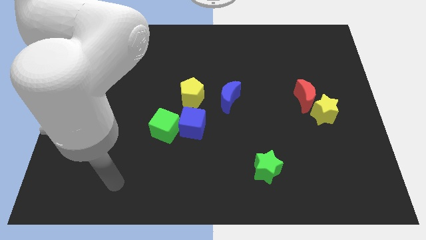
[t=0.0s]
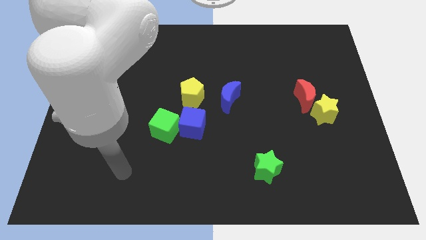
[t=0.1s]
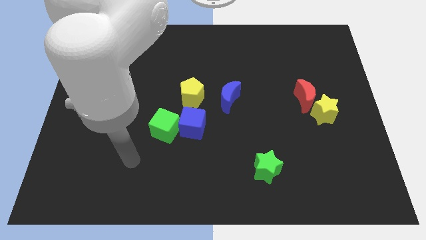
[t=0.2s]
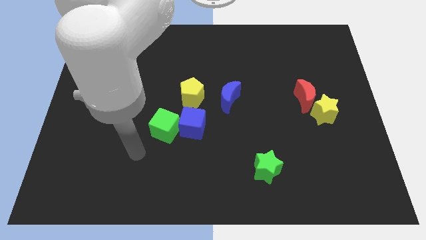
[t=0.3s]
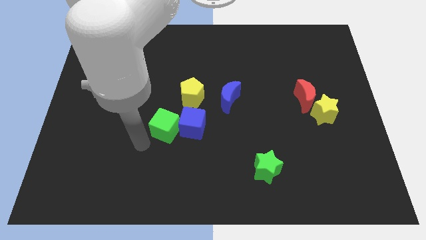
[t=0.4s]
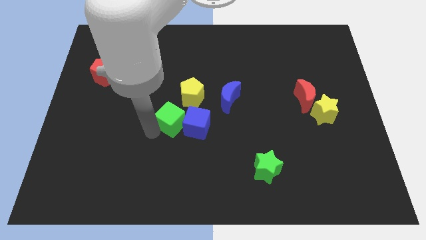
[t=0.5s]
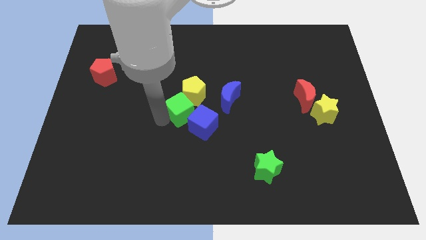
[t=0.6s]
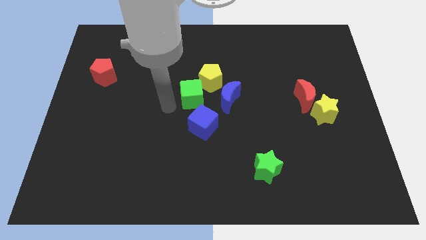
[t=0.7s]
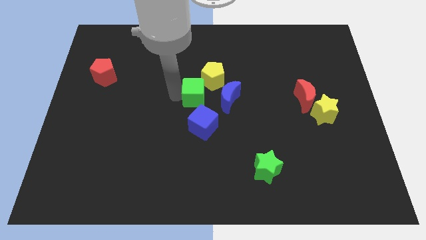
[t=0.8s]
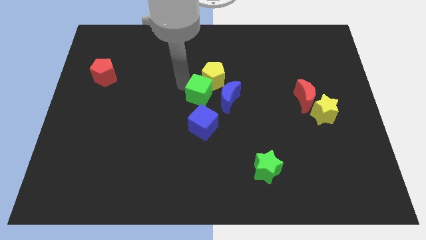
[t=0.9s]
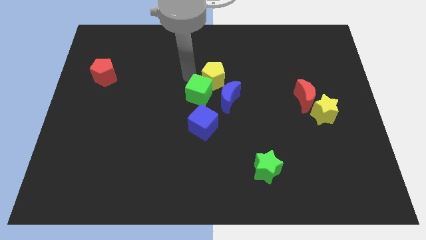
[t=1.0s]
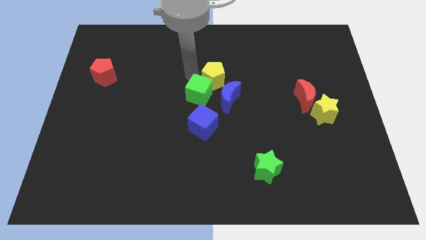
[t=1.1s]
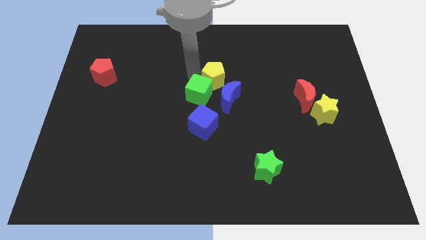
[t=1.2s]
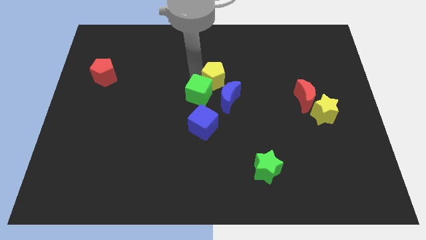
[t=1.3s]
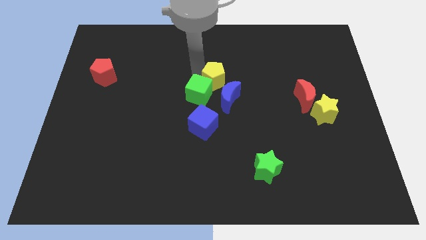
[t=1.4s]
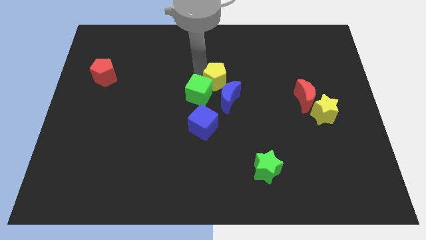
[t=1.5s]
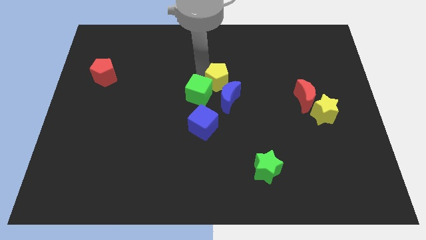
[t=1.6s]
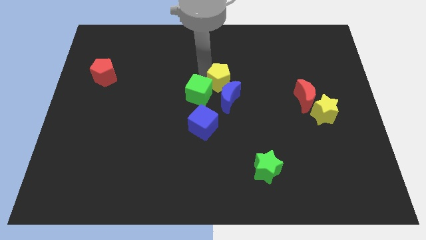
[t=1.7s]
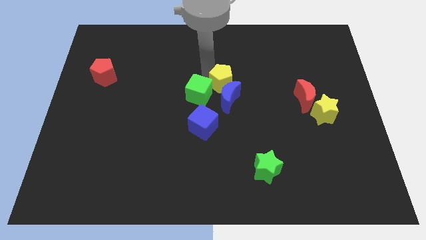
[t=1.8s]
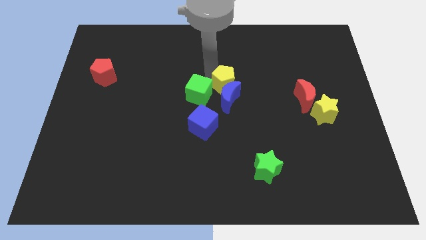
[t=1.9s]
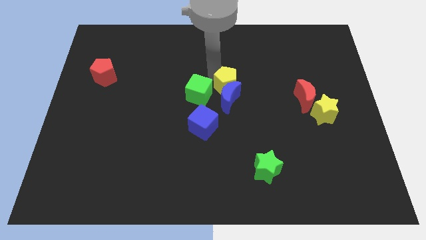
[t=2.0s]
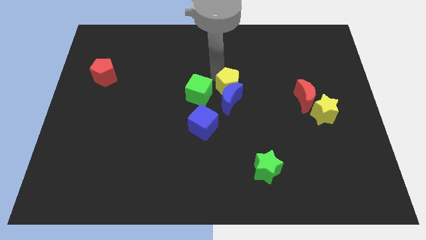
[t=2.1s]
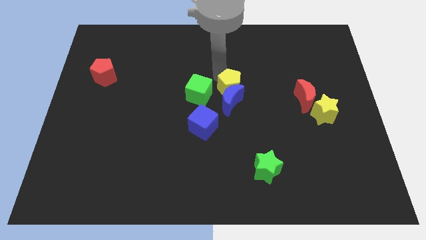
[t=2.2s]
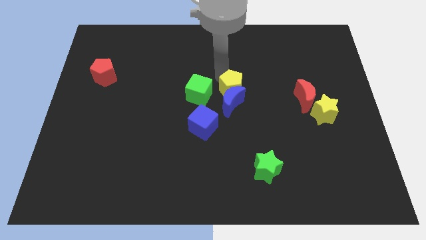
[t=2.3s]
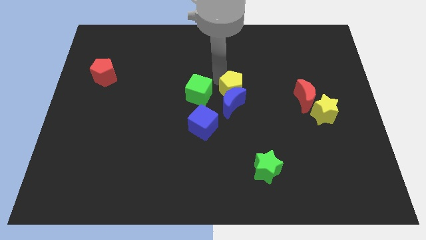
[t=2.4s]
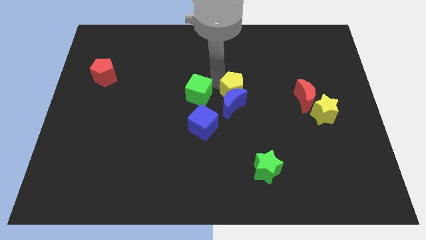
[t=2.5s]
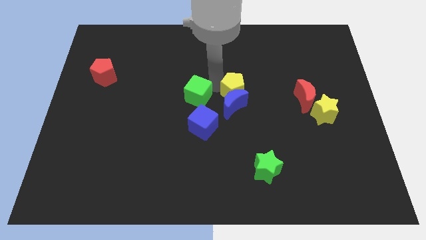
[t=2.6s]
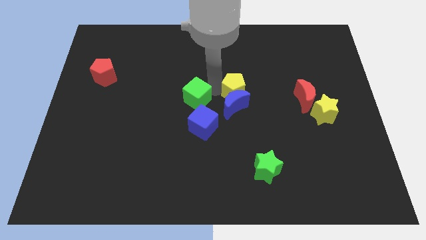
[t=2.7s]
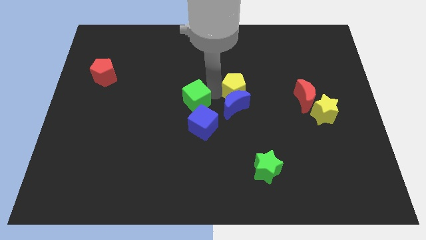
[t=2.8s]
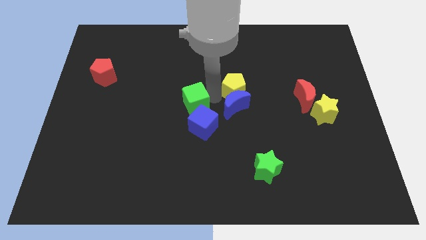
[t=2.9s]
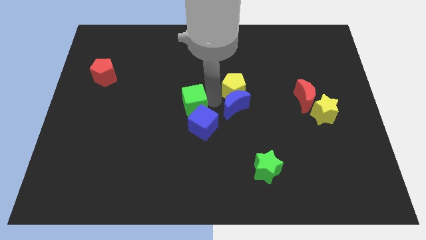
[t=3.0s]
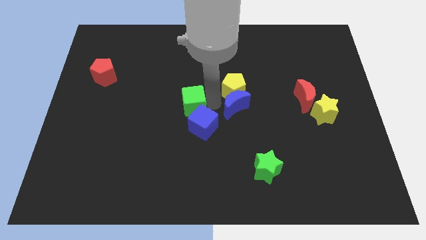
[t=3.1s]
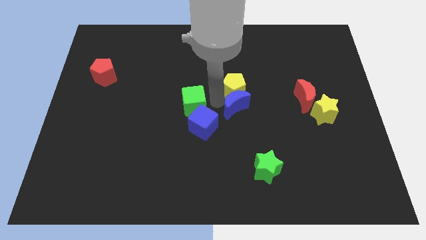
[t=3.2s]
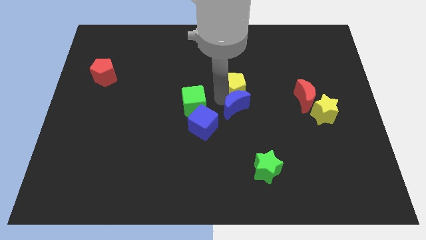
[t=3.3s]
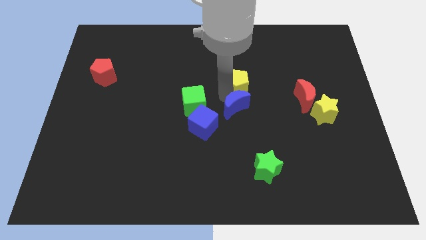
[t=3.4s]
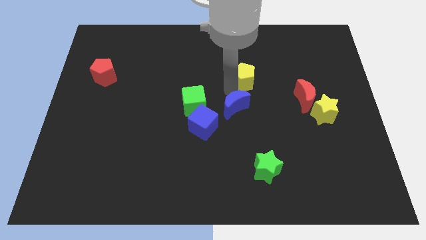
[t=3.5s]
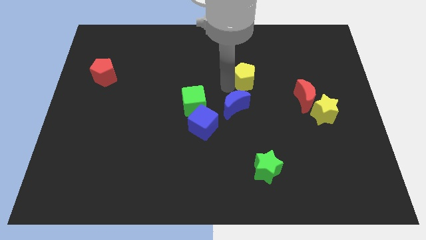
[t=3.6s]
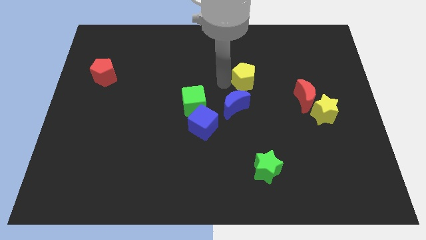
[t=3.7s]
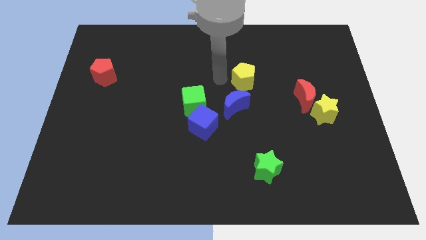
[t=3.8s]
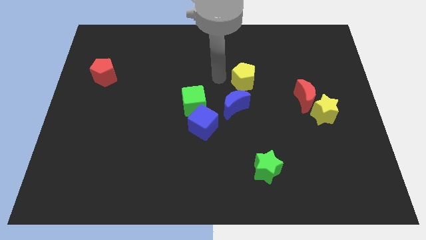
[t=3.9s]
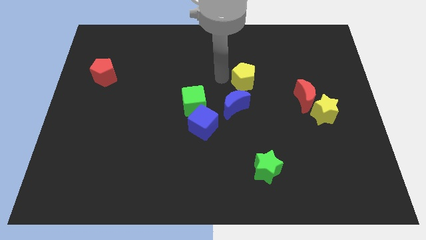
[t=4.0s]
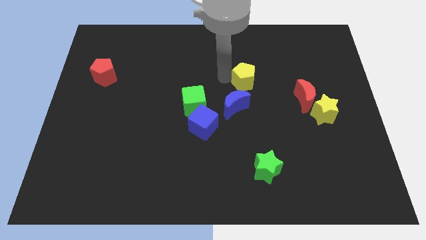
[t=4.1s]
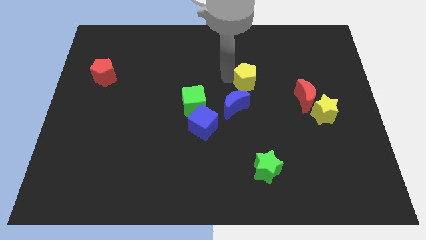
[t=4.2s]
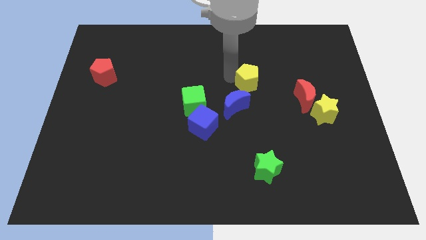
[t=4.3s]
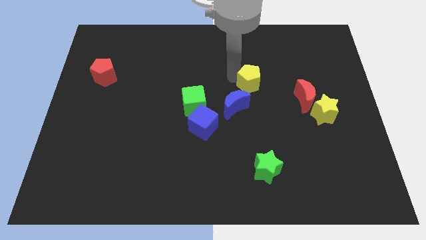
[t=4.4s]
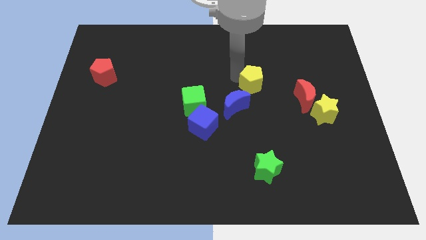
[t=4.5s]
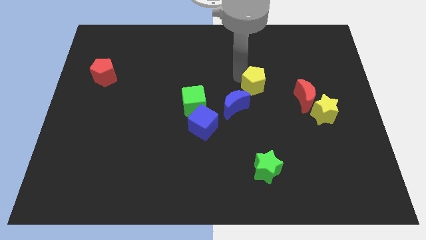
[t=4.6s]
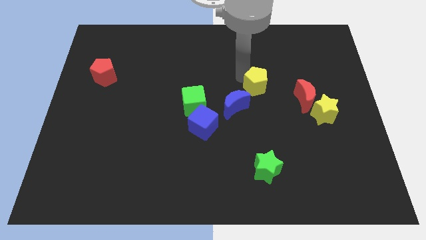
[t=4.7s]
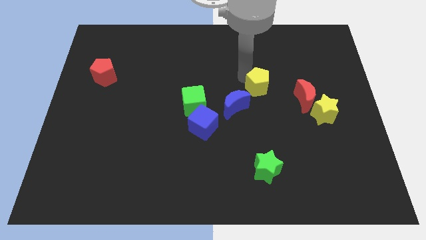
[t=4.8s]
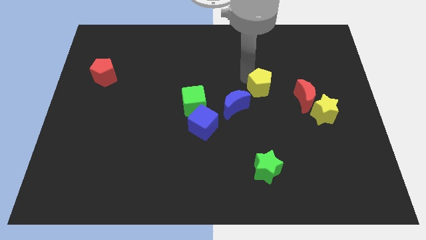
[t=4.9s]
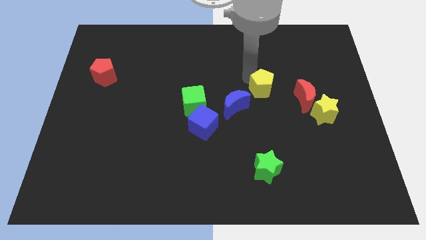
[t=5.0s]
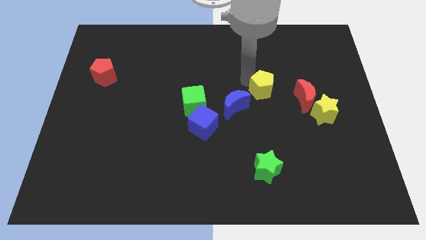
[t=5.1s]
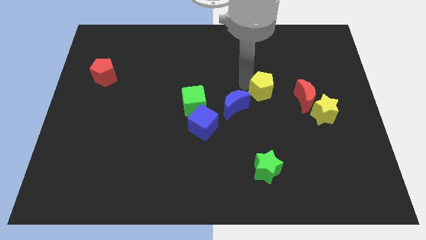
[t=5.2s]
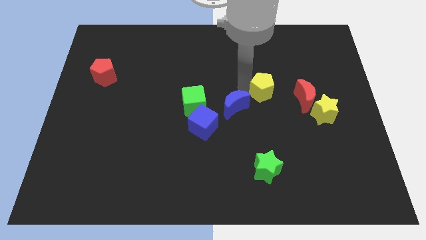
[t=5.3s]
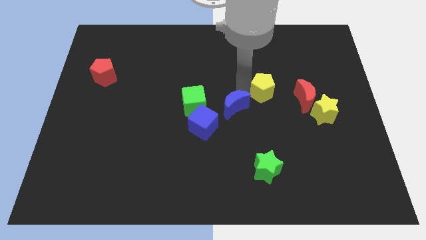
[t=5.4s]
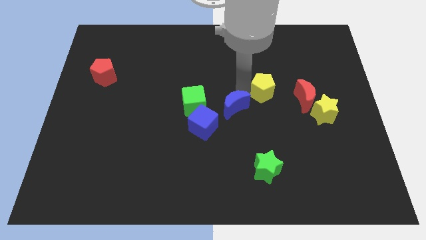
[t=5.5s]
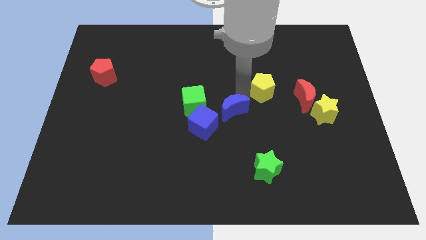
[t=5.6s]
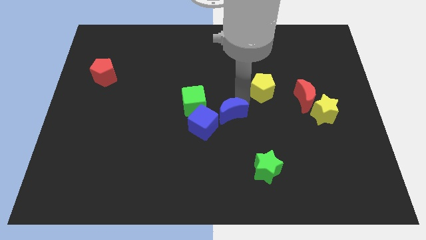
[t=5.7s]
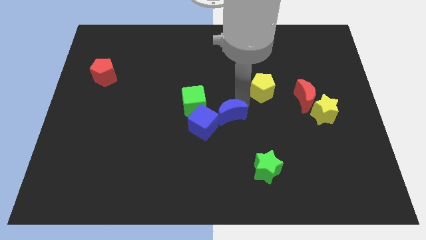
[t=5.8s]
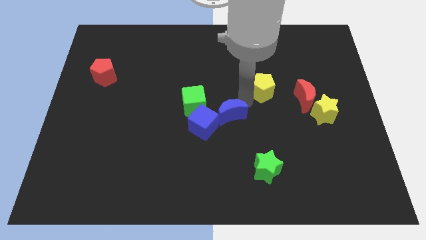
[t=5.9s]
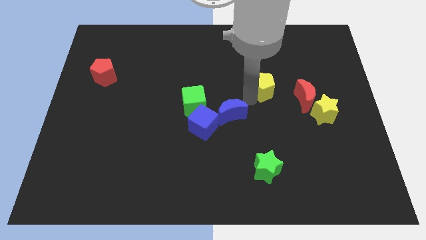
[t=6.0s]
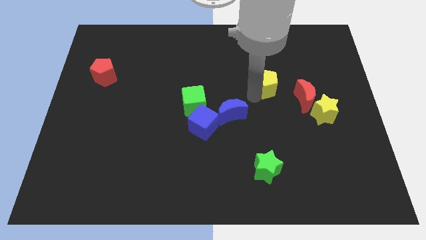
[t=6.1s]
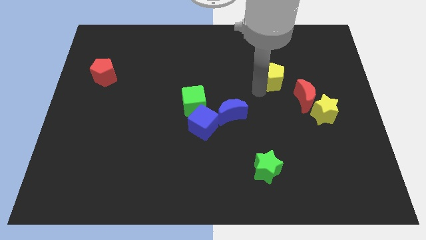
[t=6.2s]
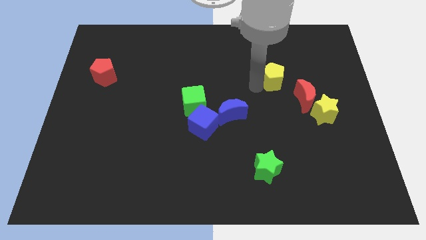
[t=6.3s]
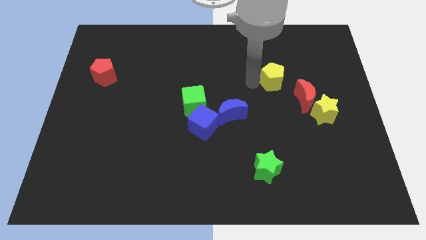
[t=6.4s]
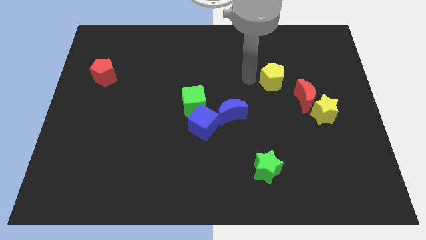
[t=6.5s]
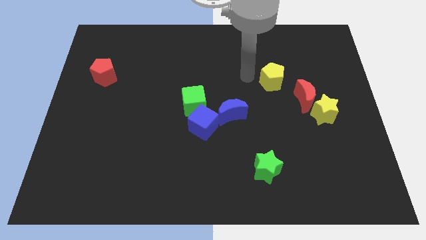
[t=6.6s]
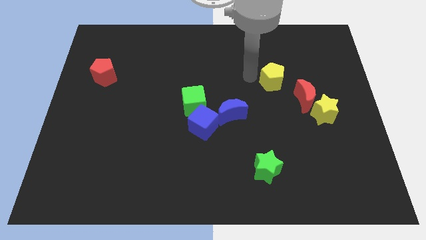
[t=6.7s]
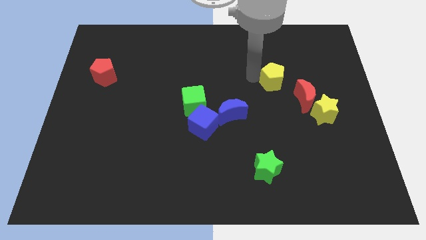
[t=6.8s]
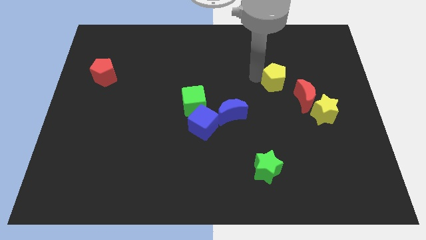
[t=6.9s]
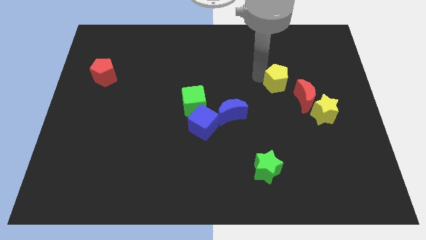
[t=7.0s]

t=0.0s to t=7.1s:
move the yellow pentagon right

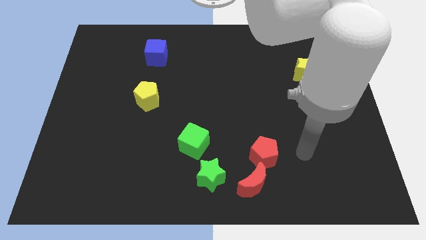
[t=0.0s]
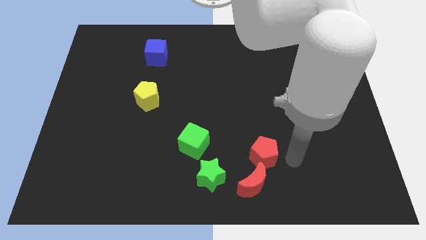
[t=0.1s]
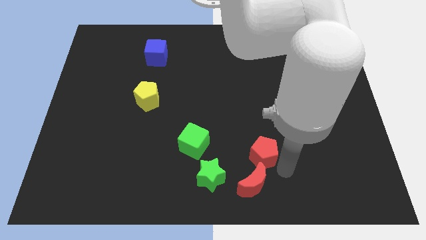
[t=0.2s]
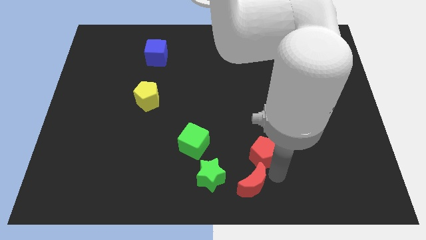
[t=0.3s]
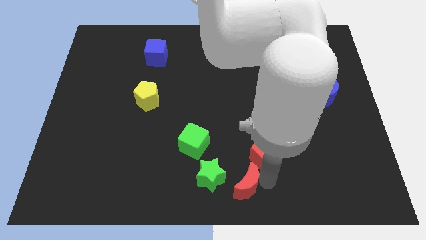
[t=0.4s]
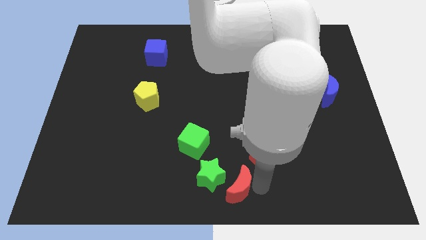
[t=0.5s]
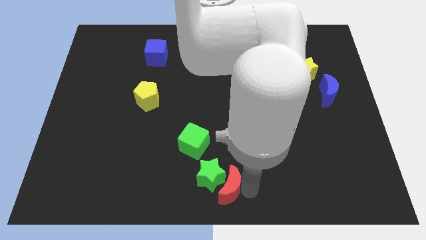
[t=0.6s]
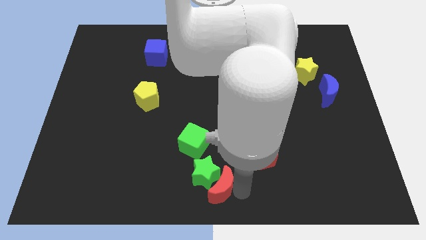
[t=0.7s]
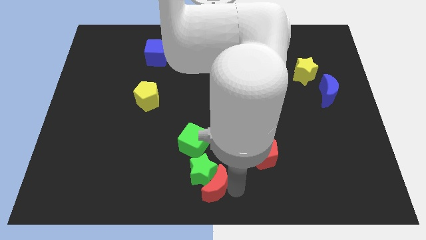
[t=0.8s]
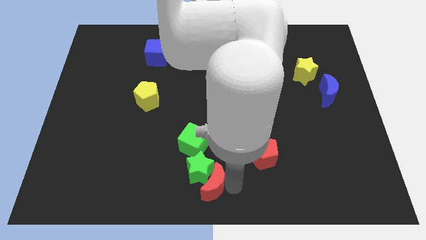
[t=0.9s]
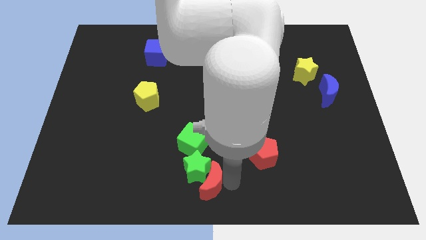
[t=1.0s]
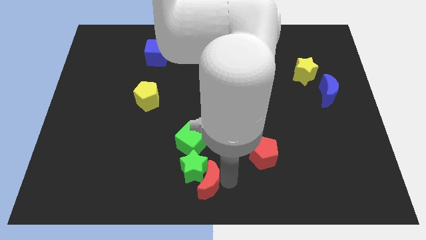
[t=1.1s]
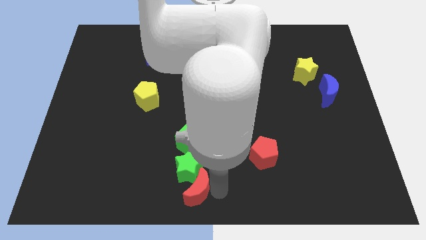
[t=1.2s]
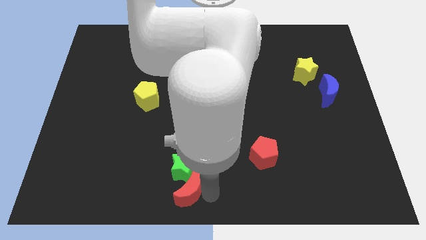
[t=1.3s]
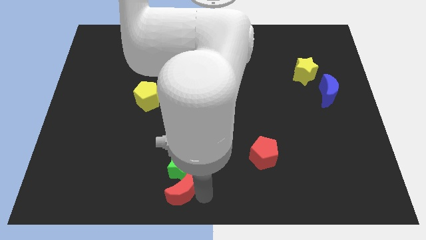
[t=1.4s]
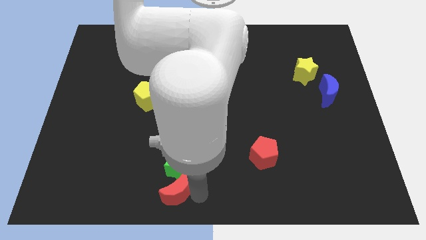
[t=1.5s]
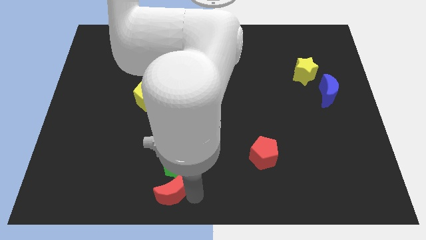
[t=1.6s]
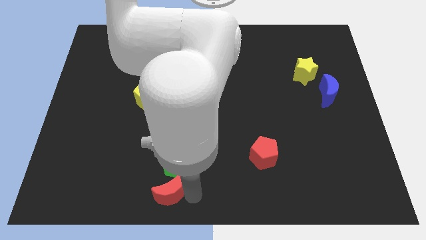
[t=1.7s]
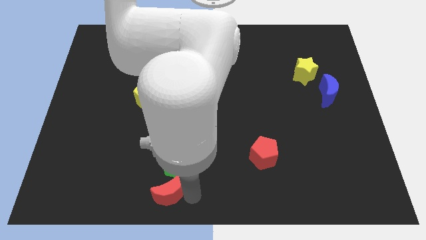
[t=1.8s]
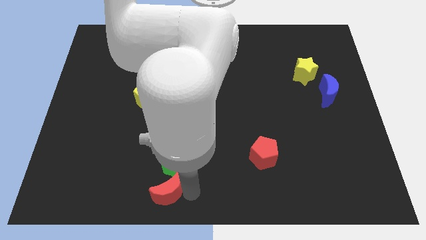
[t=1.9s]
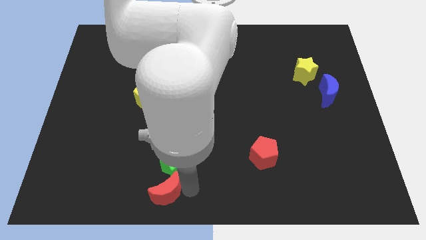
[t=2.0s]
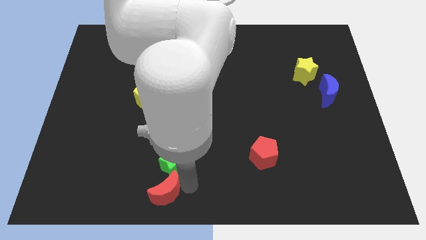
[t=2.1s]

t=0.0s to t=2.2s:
slightly push the green star upwards and then to the left
